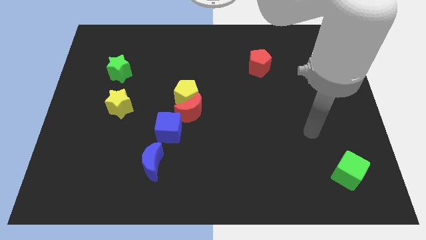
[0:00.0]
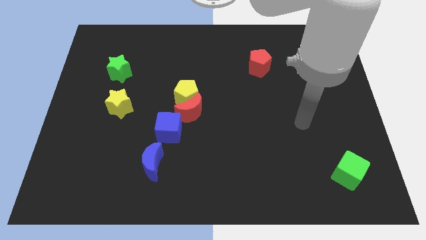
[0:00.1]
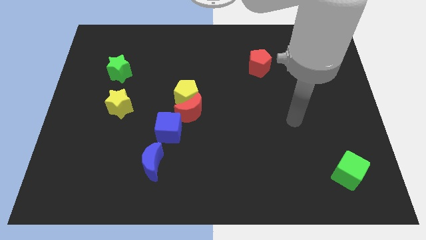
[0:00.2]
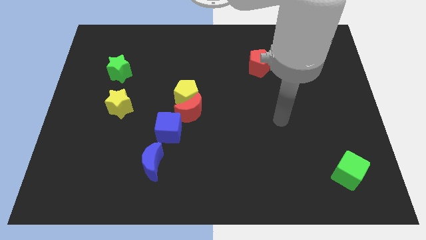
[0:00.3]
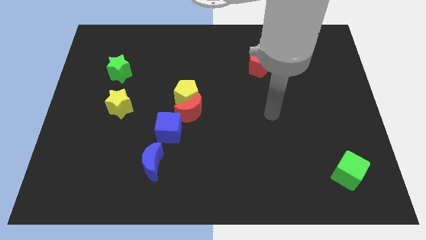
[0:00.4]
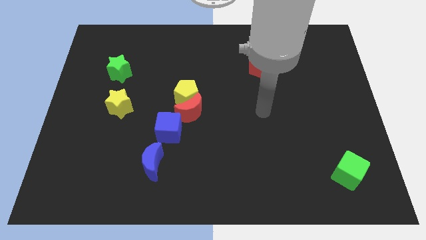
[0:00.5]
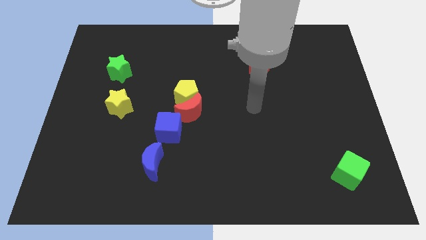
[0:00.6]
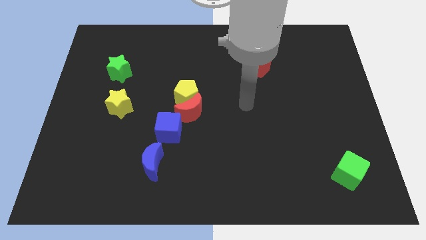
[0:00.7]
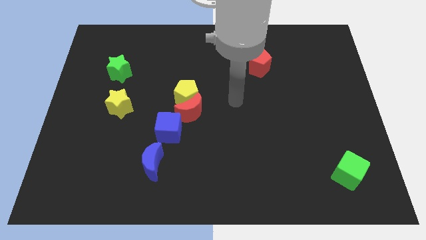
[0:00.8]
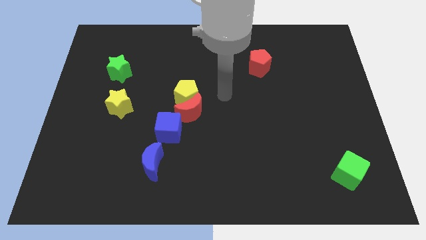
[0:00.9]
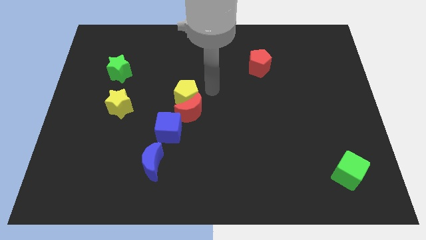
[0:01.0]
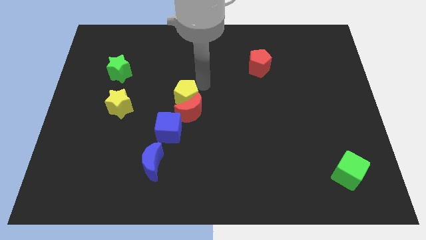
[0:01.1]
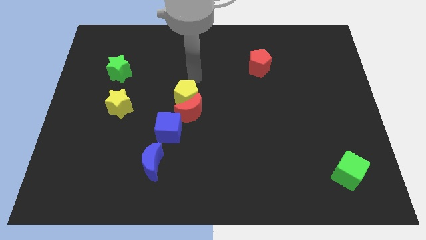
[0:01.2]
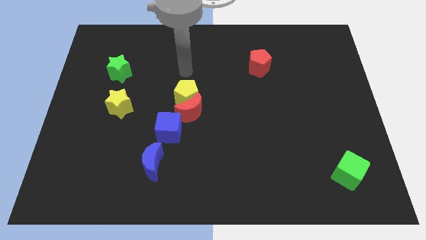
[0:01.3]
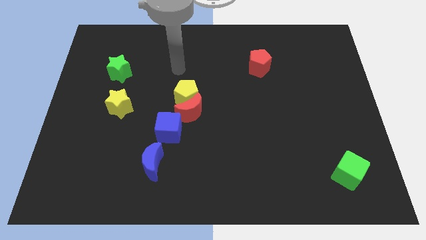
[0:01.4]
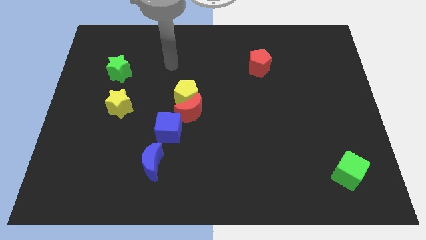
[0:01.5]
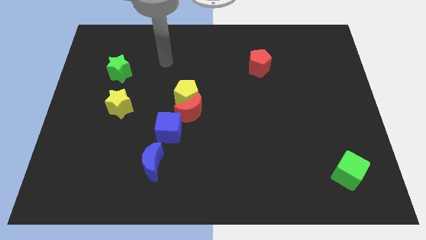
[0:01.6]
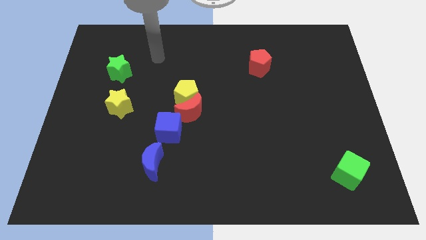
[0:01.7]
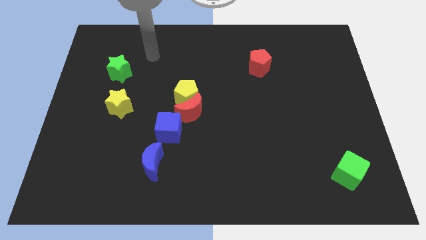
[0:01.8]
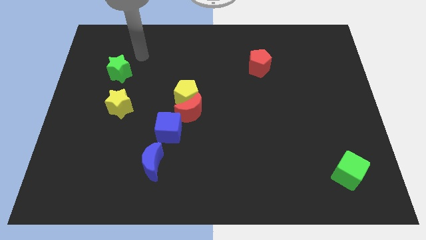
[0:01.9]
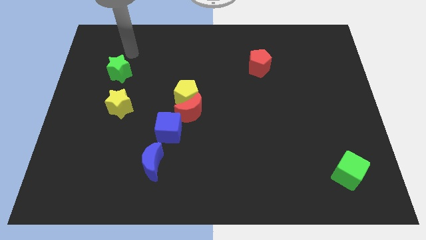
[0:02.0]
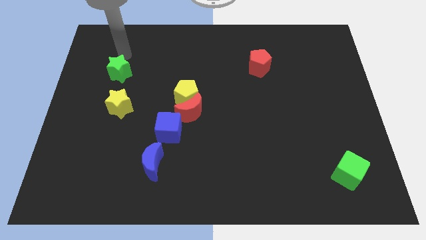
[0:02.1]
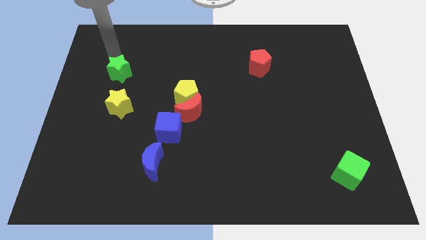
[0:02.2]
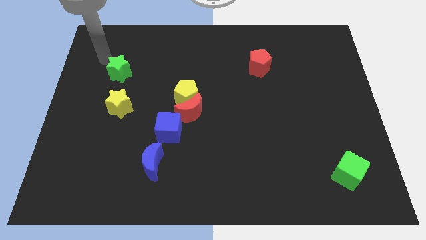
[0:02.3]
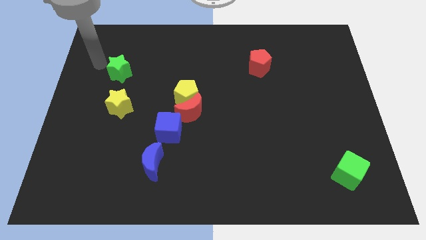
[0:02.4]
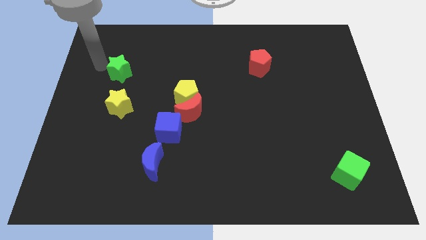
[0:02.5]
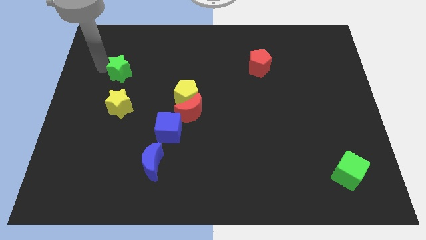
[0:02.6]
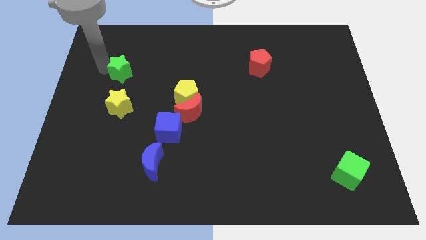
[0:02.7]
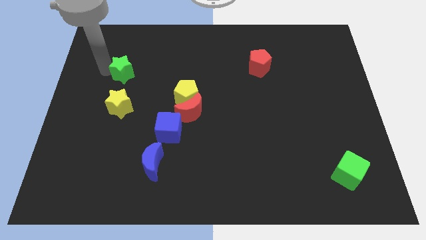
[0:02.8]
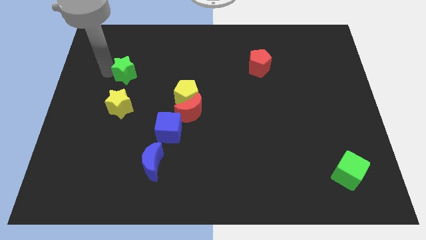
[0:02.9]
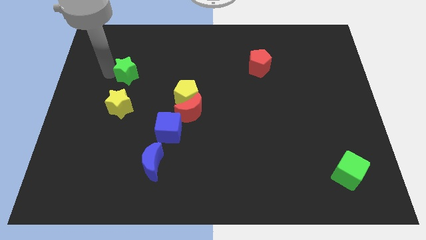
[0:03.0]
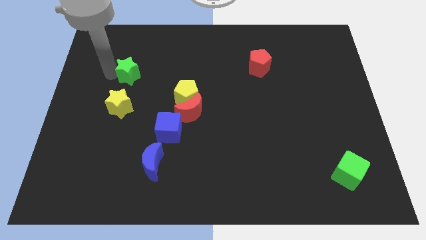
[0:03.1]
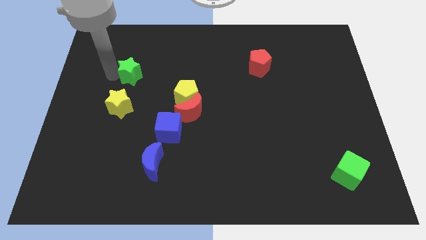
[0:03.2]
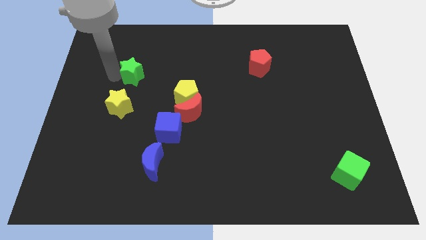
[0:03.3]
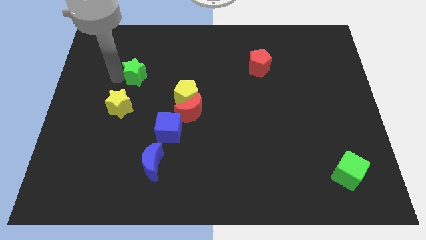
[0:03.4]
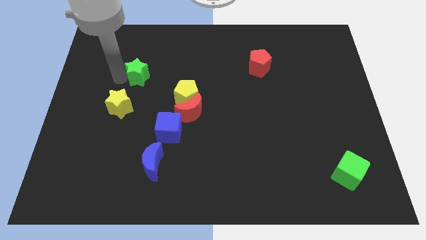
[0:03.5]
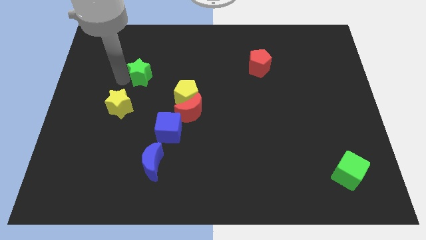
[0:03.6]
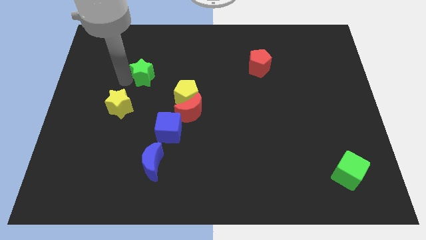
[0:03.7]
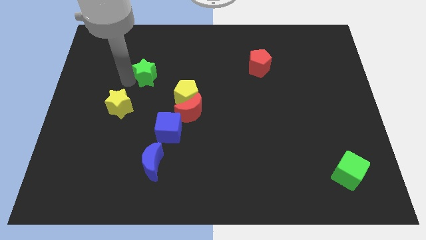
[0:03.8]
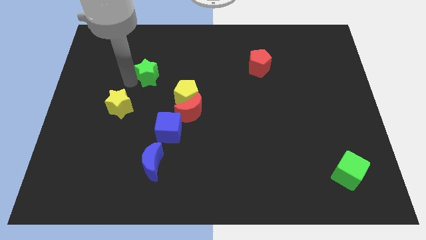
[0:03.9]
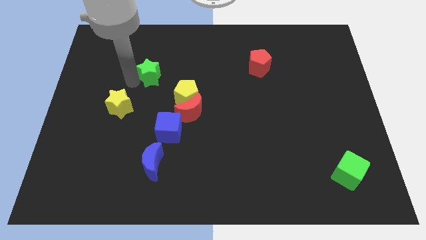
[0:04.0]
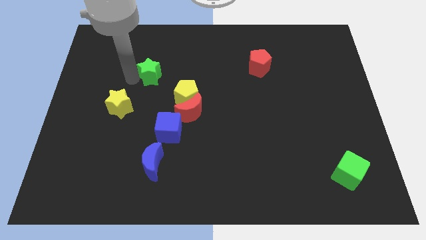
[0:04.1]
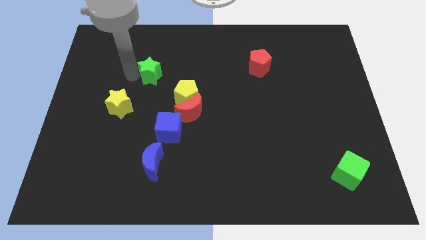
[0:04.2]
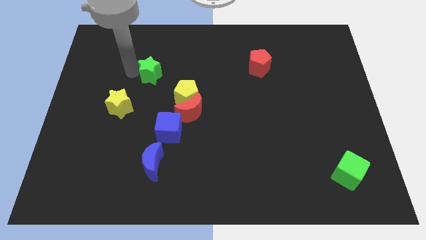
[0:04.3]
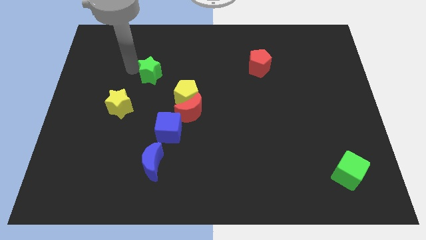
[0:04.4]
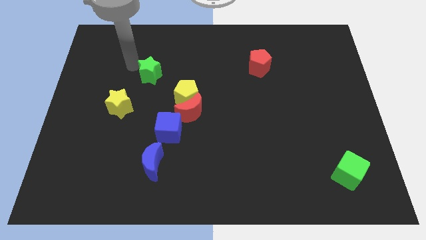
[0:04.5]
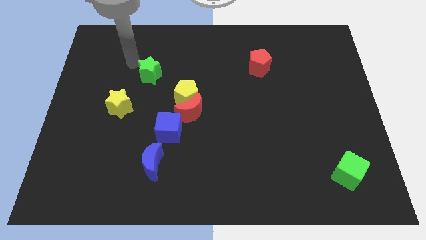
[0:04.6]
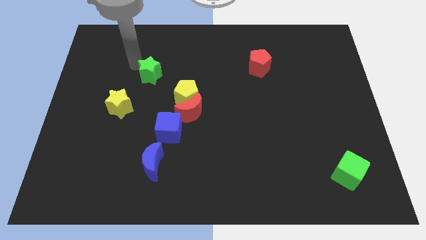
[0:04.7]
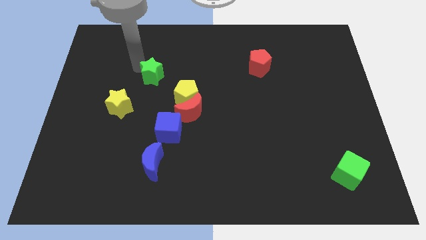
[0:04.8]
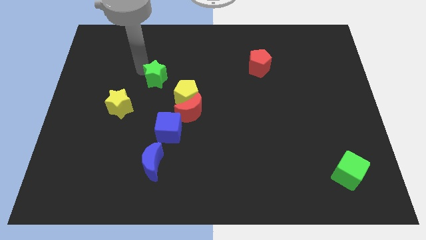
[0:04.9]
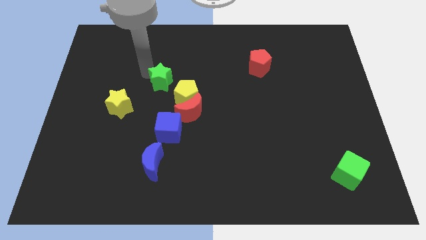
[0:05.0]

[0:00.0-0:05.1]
push the green star above the blue cube

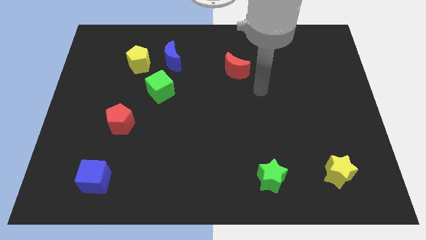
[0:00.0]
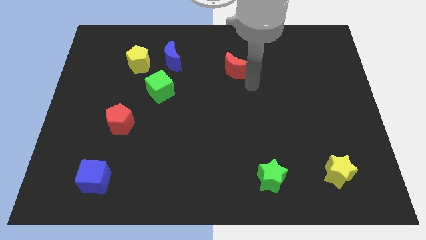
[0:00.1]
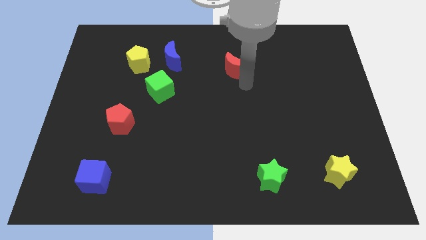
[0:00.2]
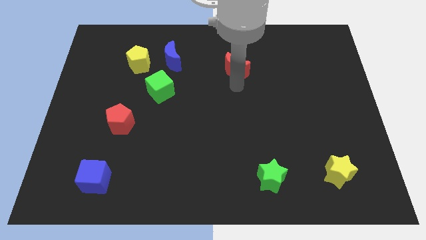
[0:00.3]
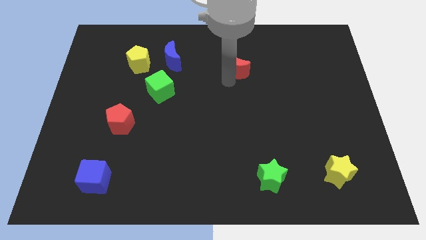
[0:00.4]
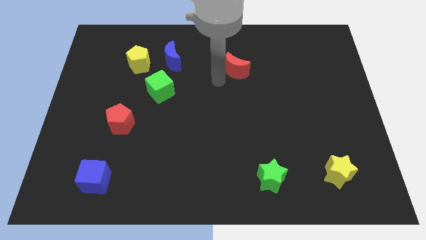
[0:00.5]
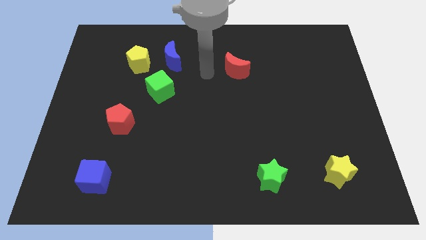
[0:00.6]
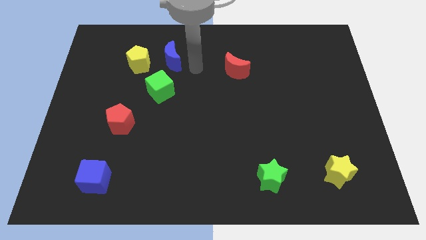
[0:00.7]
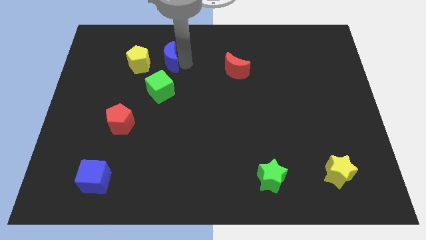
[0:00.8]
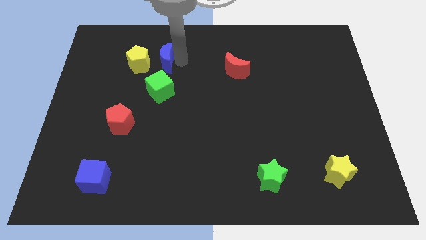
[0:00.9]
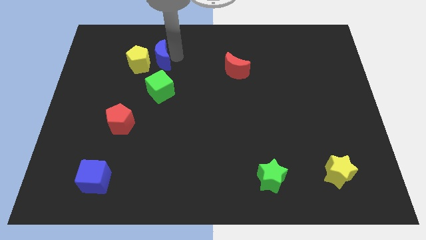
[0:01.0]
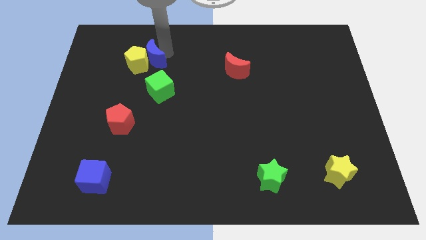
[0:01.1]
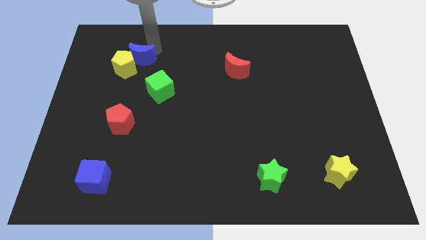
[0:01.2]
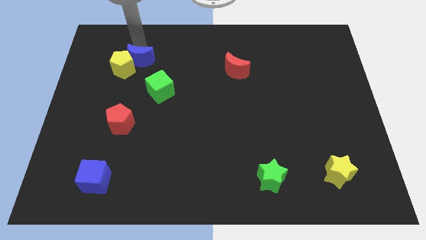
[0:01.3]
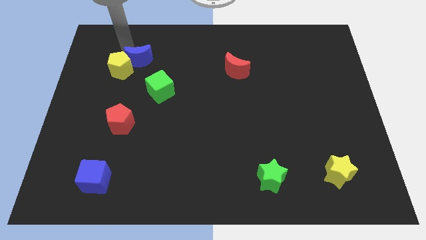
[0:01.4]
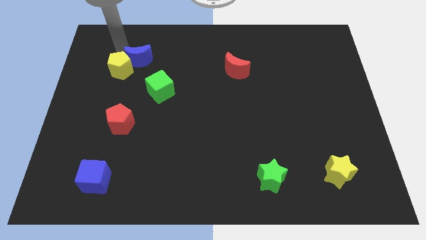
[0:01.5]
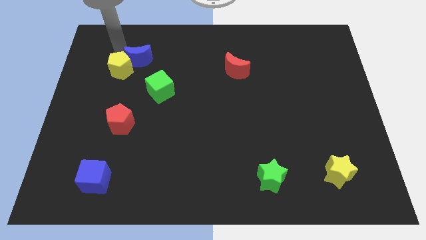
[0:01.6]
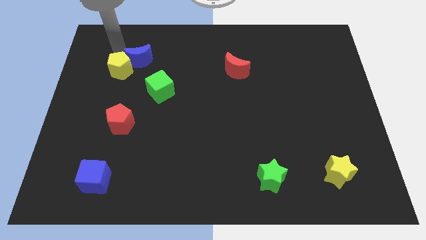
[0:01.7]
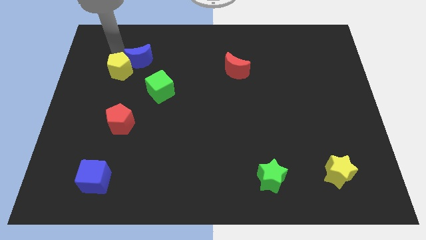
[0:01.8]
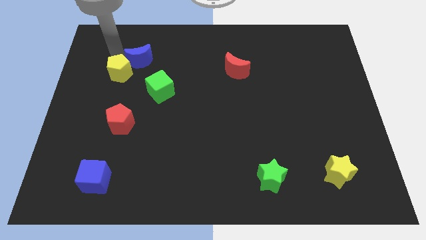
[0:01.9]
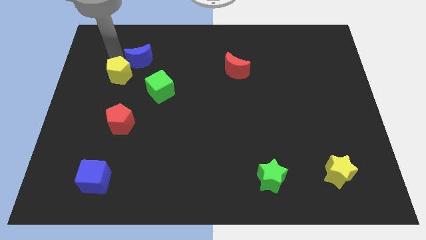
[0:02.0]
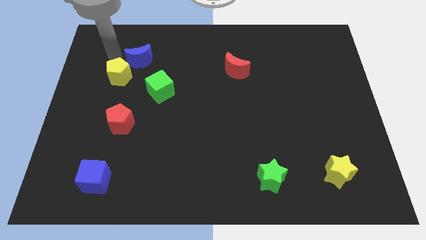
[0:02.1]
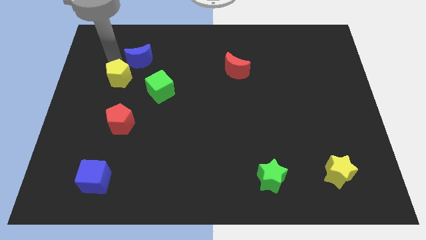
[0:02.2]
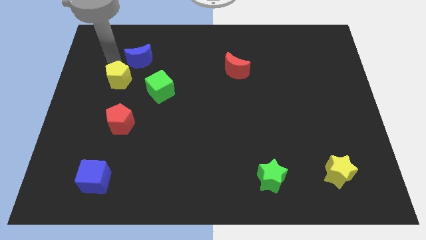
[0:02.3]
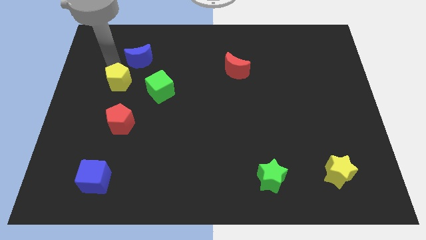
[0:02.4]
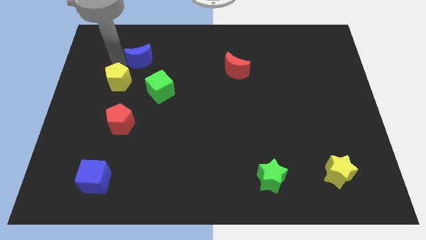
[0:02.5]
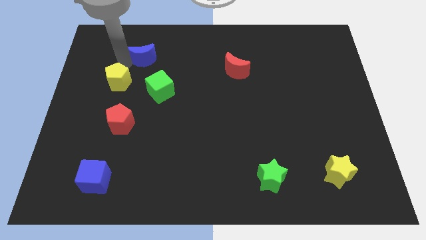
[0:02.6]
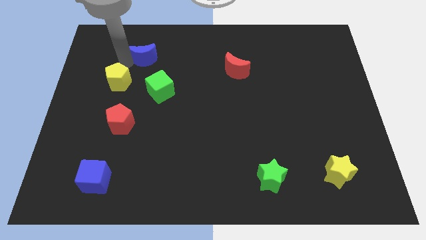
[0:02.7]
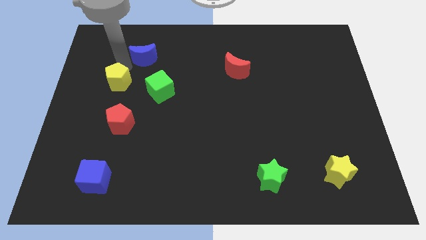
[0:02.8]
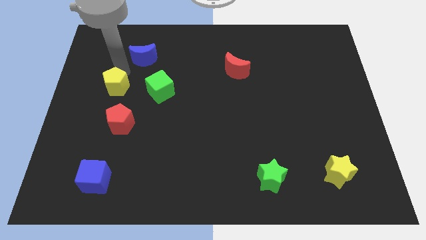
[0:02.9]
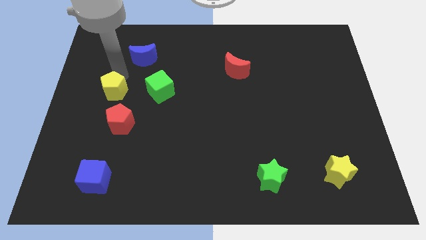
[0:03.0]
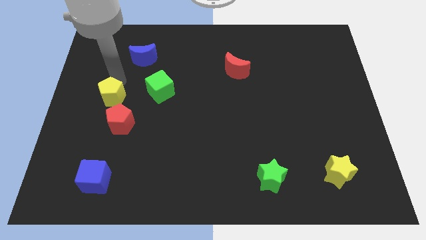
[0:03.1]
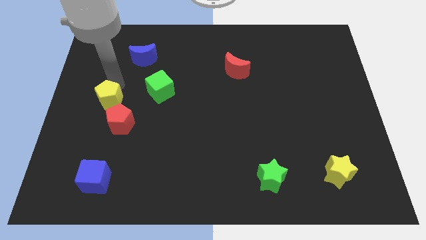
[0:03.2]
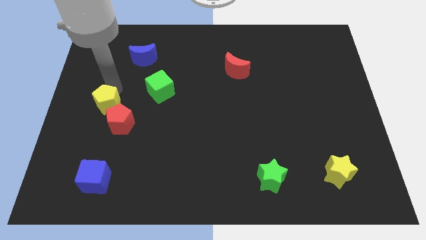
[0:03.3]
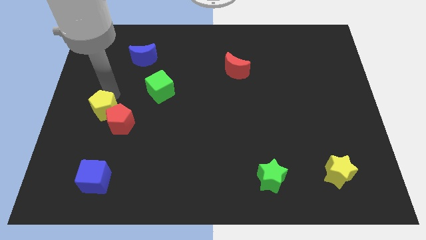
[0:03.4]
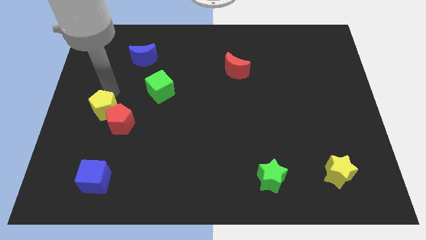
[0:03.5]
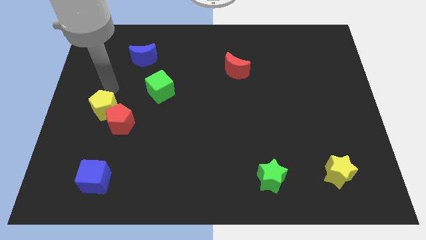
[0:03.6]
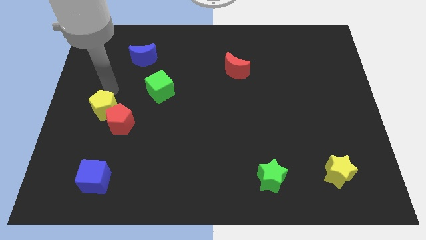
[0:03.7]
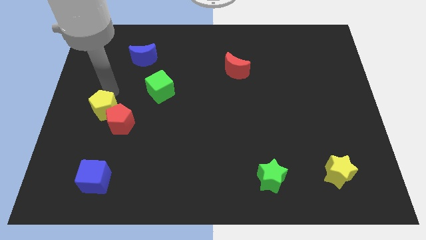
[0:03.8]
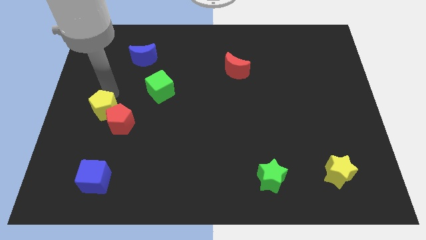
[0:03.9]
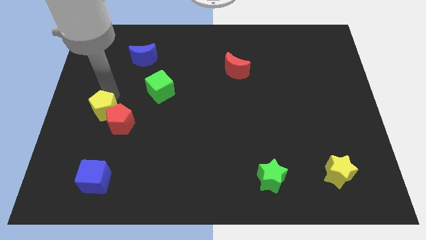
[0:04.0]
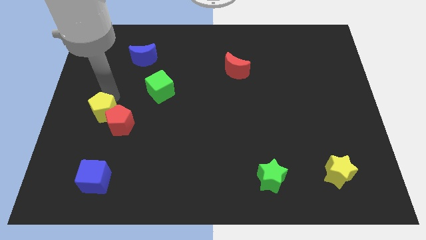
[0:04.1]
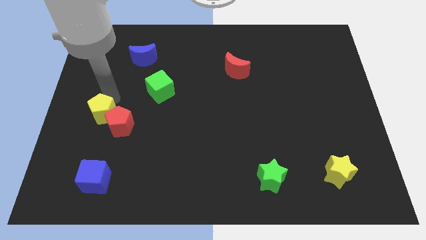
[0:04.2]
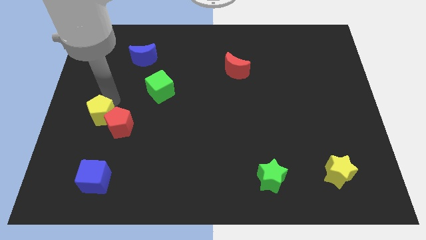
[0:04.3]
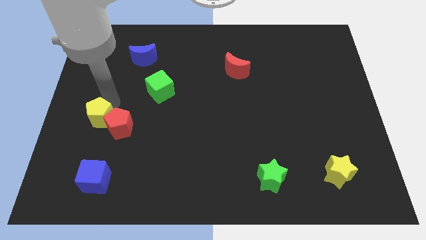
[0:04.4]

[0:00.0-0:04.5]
slide the yellow pentagon to the top side of the blue cube
